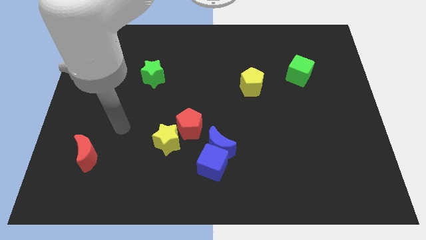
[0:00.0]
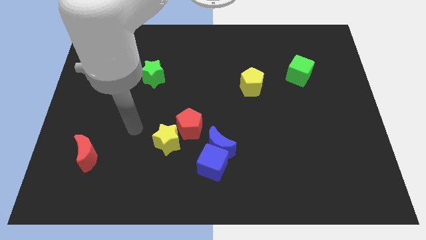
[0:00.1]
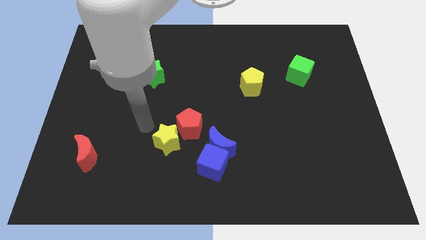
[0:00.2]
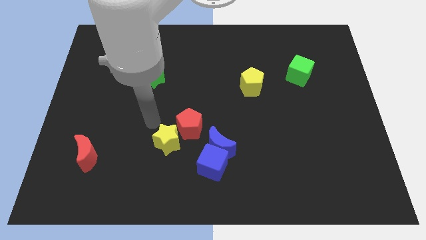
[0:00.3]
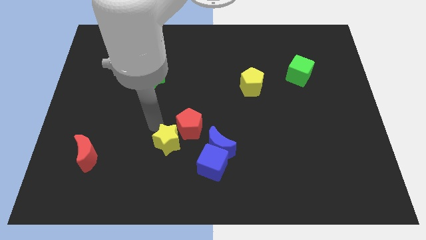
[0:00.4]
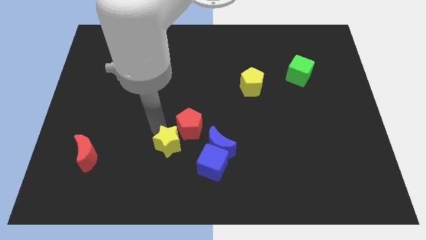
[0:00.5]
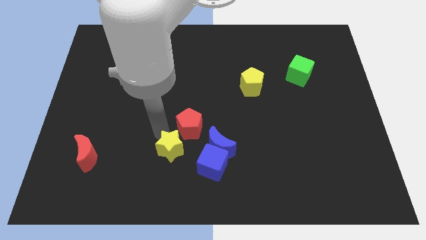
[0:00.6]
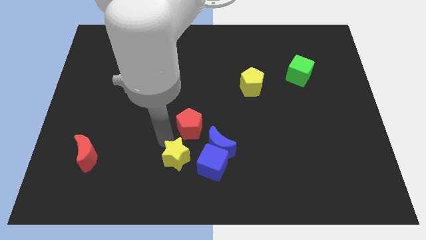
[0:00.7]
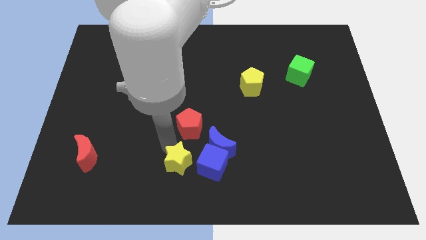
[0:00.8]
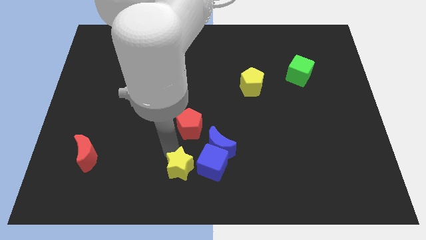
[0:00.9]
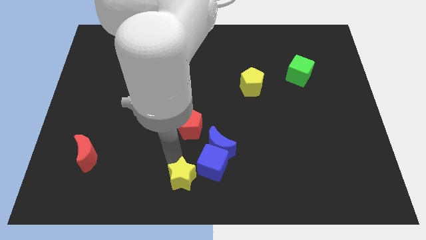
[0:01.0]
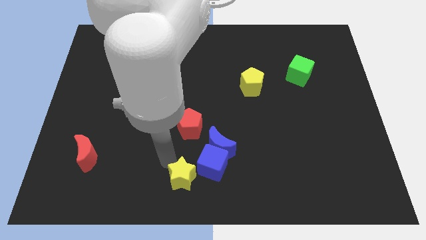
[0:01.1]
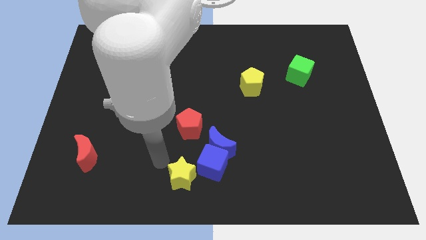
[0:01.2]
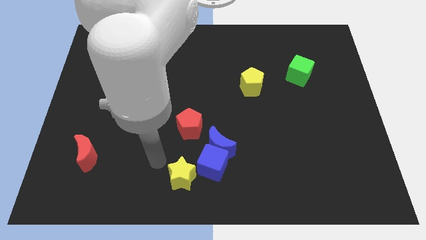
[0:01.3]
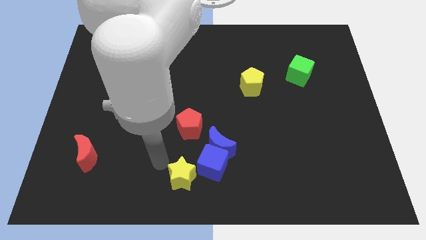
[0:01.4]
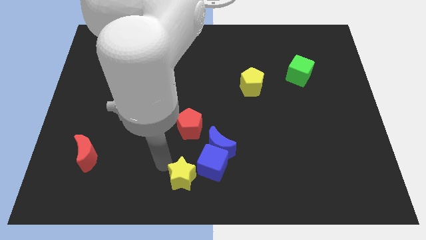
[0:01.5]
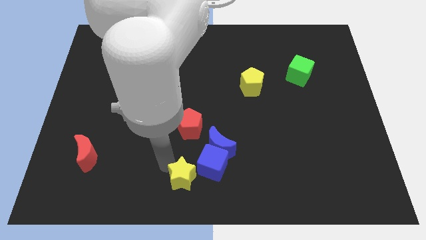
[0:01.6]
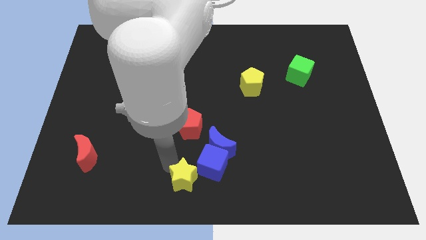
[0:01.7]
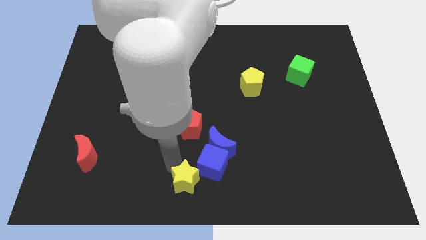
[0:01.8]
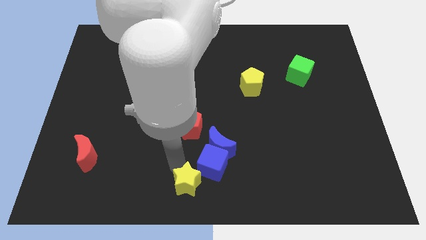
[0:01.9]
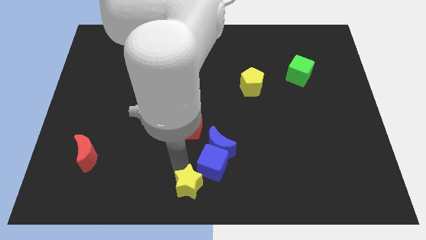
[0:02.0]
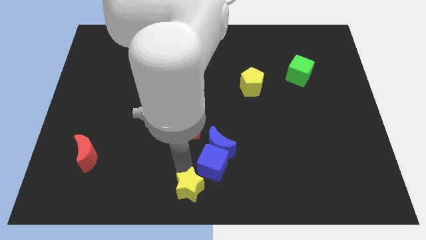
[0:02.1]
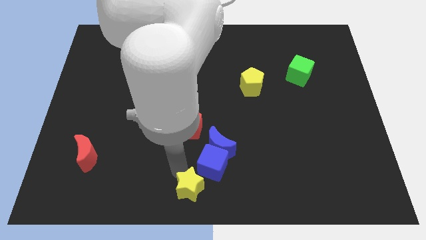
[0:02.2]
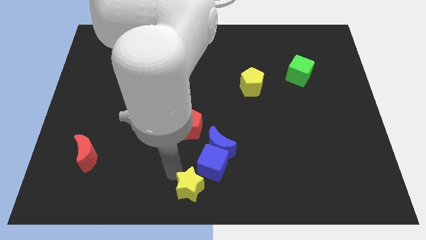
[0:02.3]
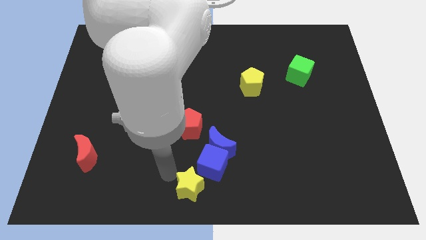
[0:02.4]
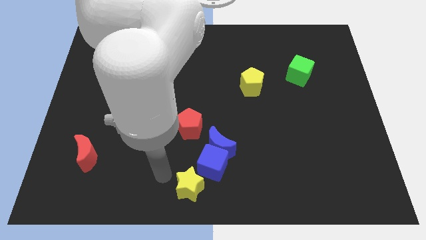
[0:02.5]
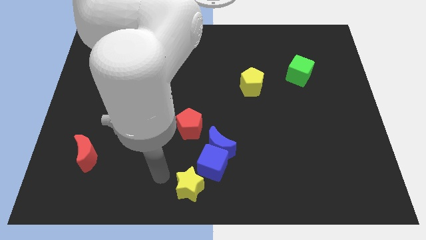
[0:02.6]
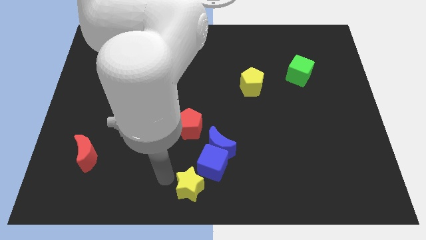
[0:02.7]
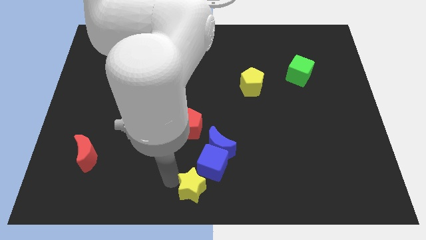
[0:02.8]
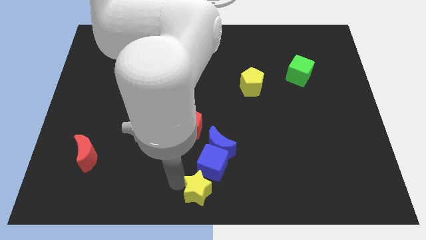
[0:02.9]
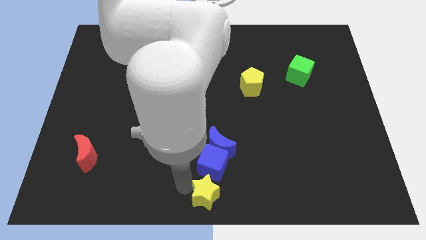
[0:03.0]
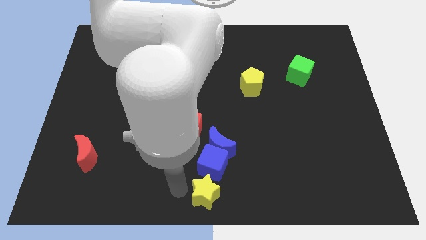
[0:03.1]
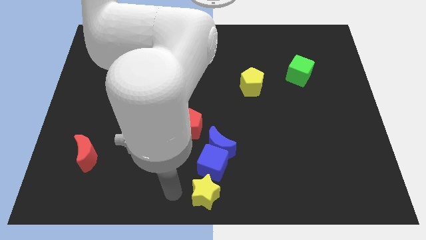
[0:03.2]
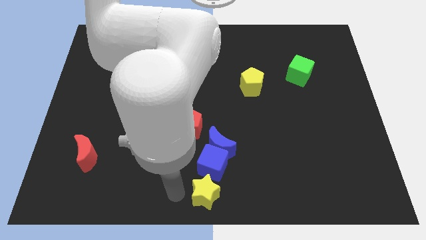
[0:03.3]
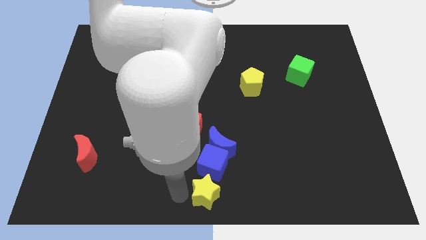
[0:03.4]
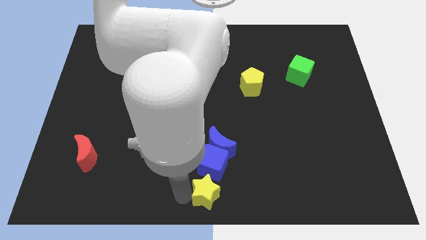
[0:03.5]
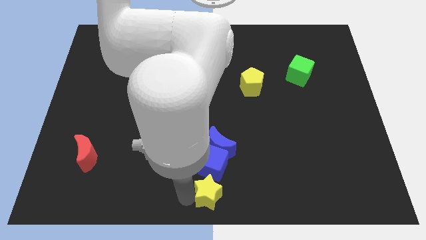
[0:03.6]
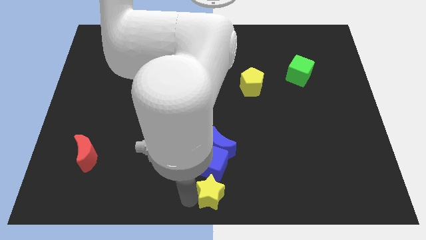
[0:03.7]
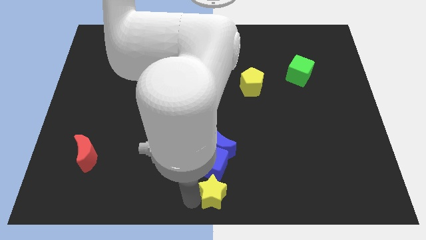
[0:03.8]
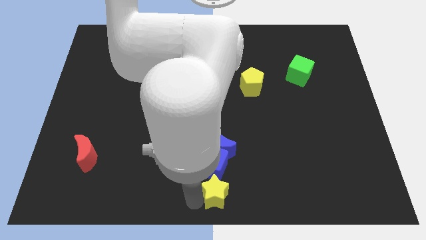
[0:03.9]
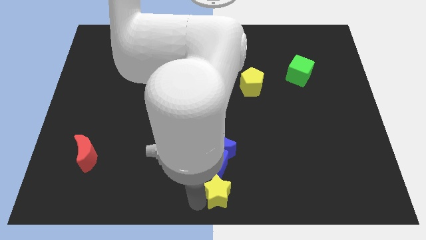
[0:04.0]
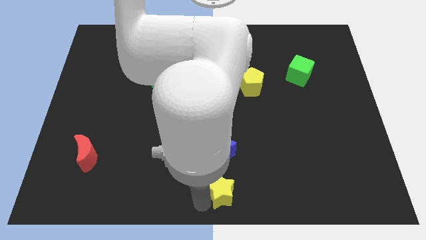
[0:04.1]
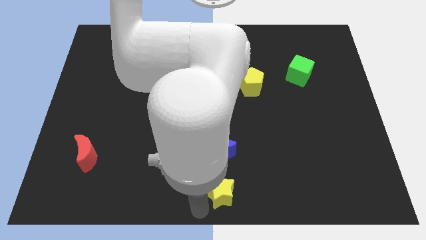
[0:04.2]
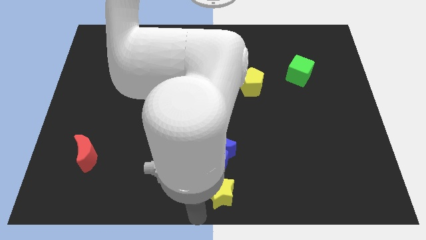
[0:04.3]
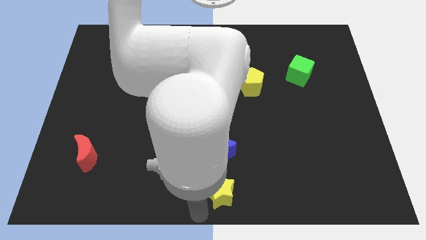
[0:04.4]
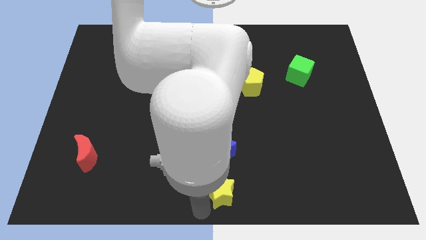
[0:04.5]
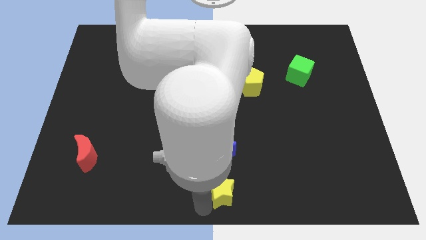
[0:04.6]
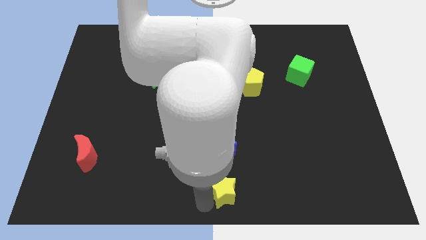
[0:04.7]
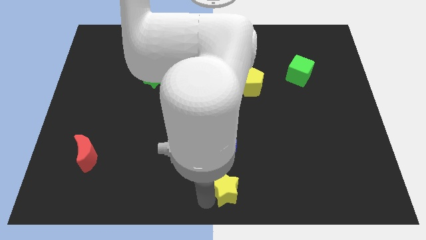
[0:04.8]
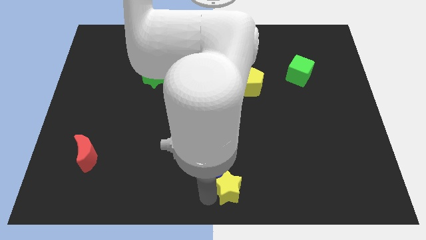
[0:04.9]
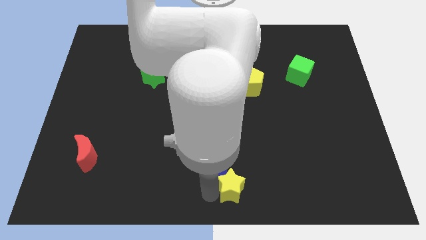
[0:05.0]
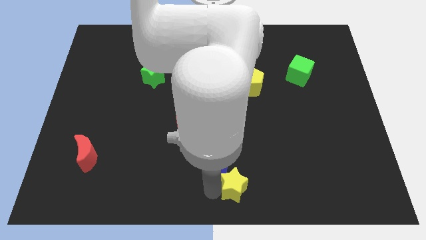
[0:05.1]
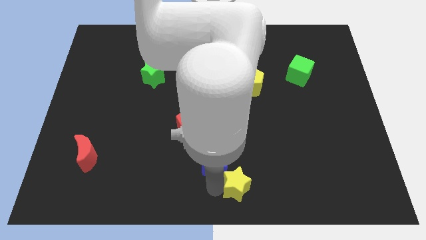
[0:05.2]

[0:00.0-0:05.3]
move the yellow star to the bottom right side of the blue moon

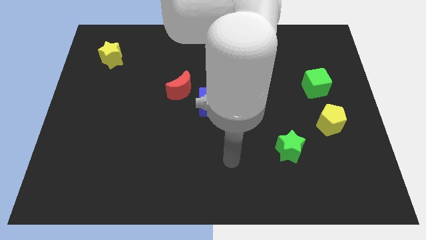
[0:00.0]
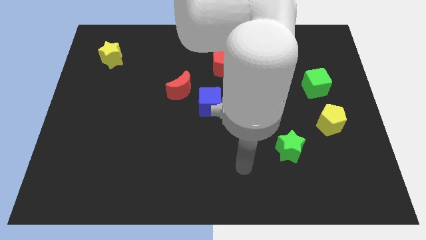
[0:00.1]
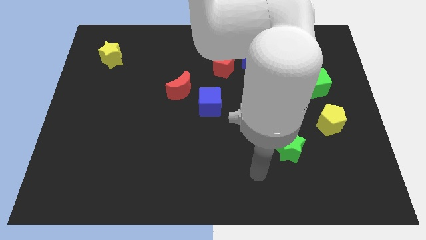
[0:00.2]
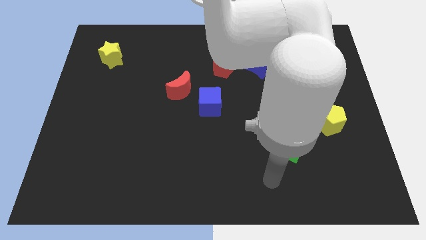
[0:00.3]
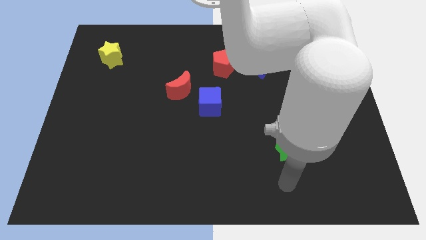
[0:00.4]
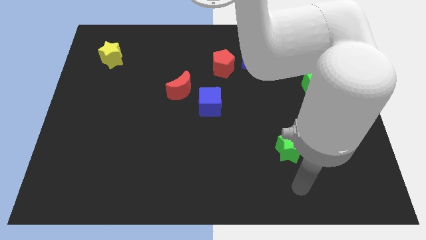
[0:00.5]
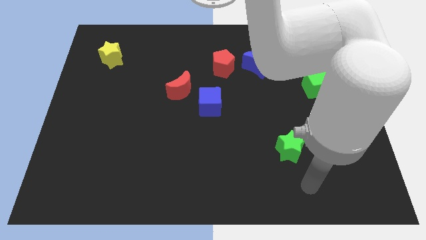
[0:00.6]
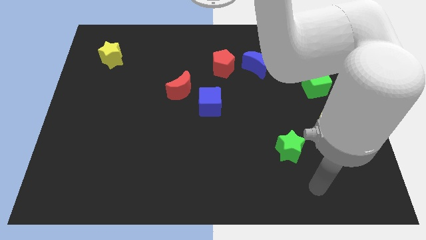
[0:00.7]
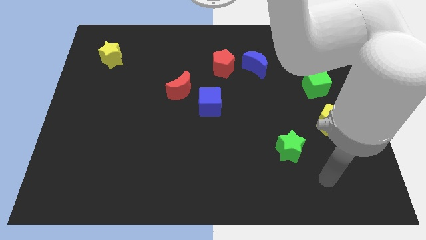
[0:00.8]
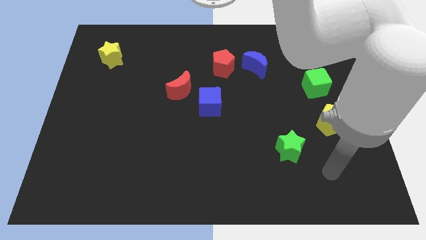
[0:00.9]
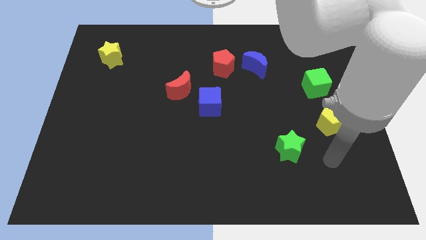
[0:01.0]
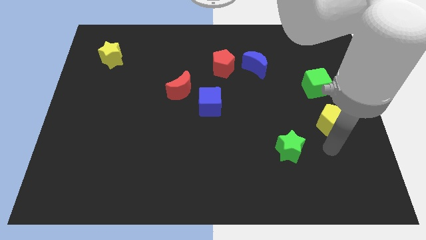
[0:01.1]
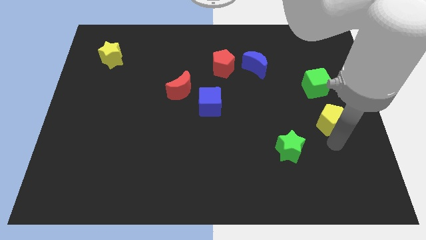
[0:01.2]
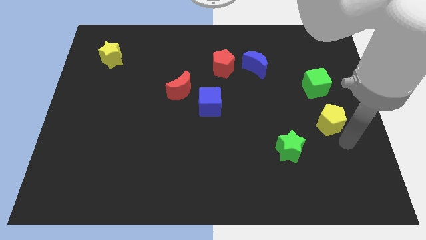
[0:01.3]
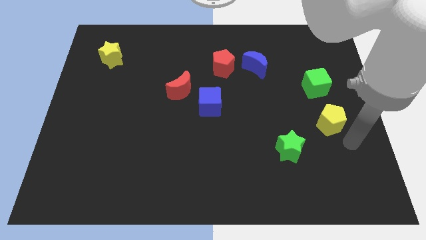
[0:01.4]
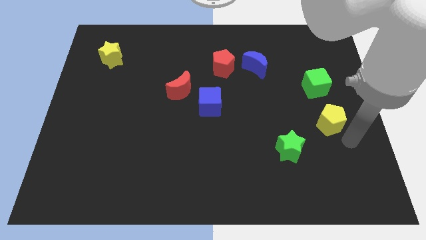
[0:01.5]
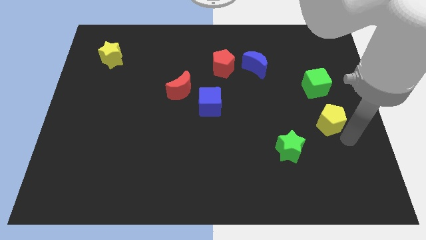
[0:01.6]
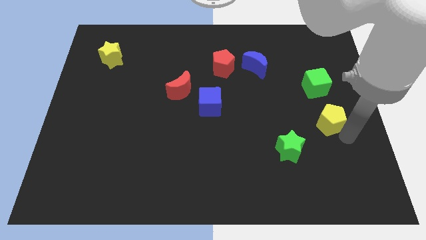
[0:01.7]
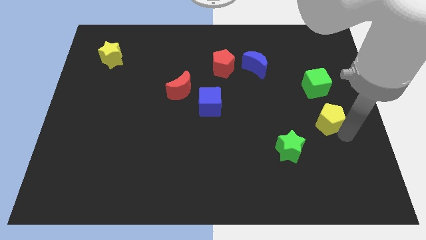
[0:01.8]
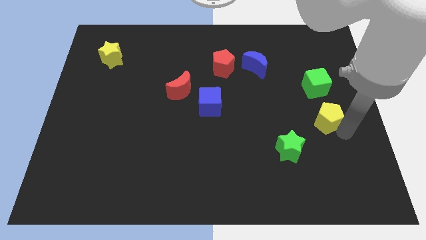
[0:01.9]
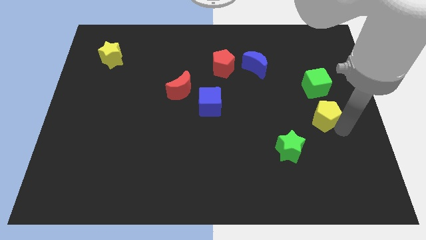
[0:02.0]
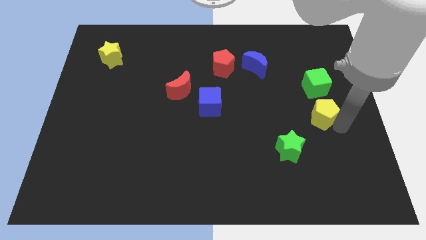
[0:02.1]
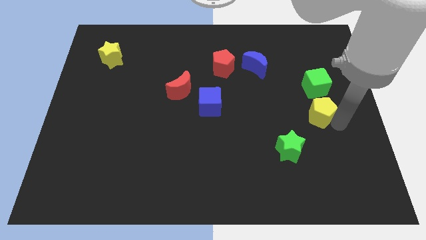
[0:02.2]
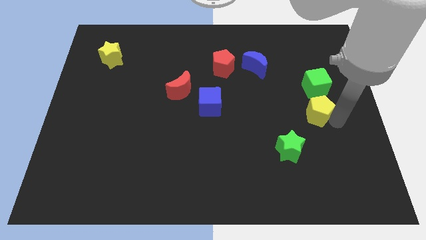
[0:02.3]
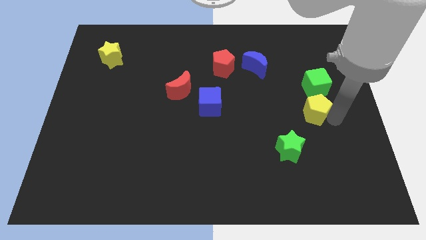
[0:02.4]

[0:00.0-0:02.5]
slide the yellow pentagon diagonally down and to the left of the green cube

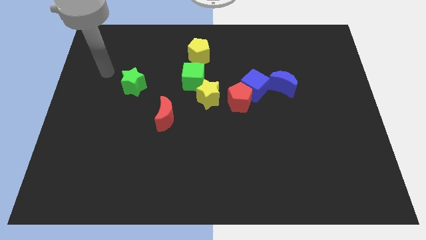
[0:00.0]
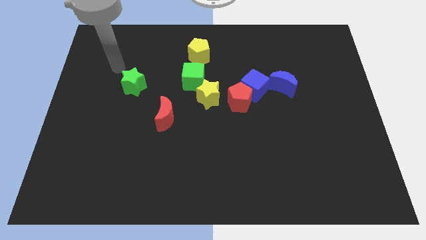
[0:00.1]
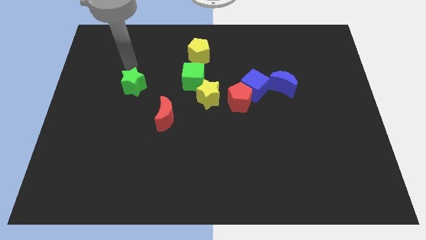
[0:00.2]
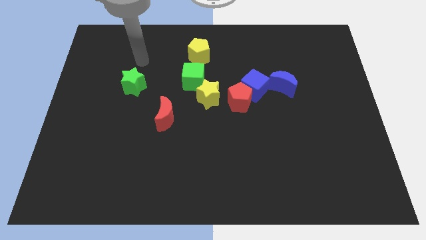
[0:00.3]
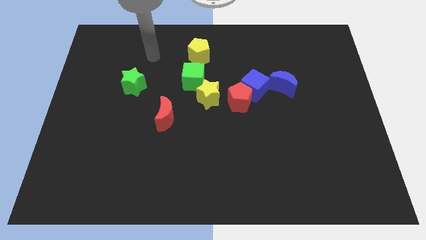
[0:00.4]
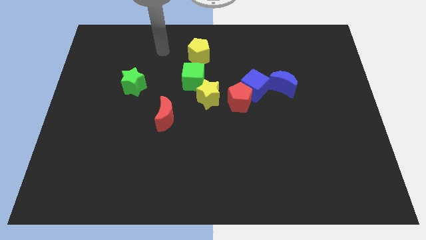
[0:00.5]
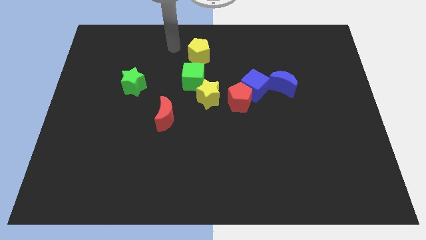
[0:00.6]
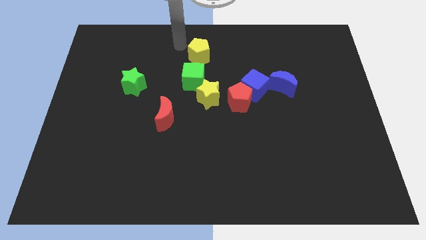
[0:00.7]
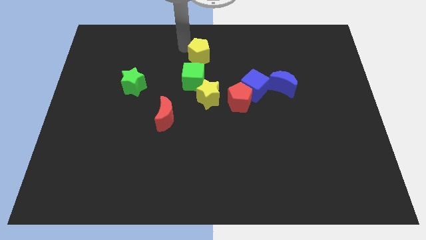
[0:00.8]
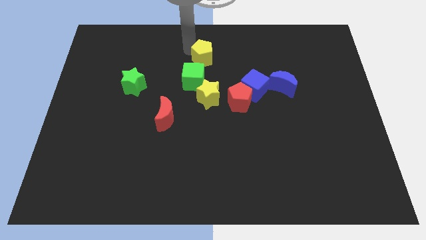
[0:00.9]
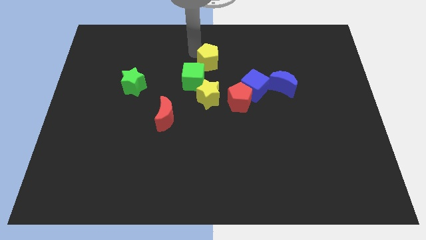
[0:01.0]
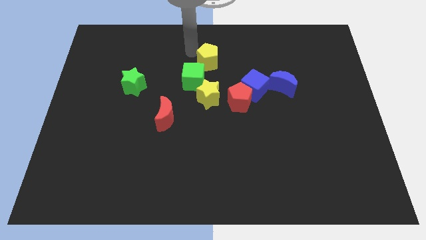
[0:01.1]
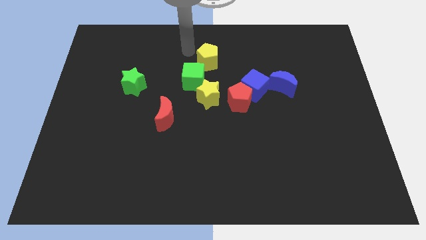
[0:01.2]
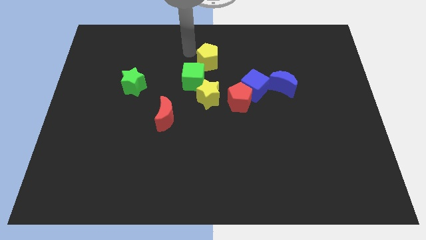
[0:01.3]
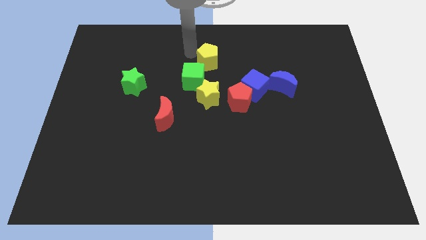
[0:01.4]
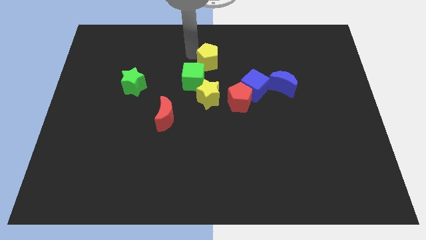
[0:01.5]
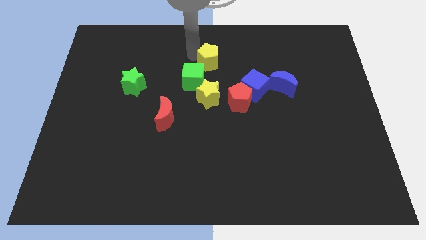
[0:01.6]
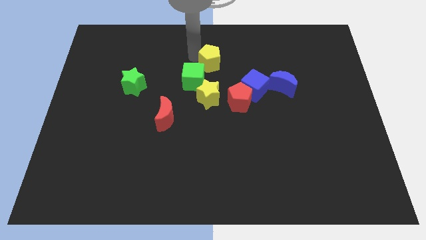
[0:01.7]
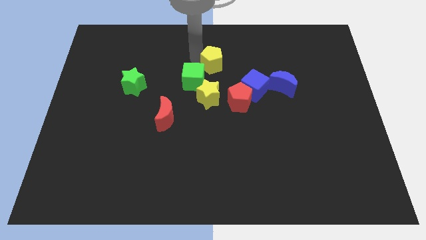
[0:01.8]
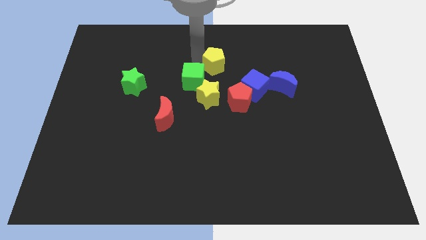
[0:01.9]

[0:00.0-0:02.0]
put the yellow pentagon to the top left of the blue cube
